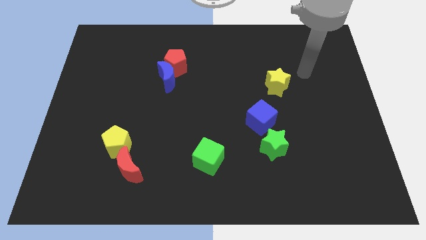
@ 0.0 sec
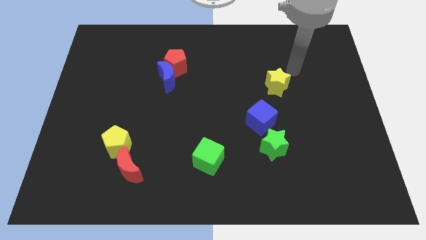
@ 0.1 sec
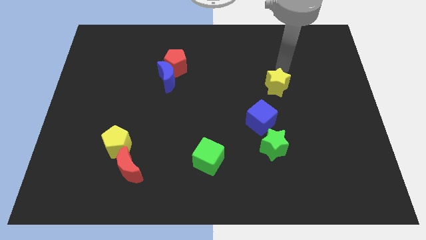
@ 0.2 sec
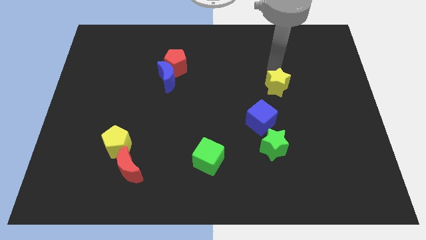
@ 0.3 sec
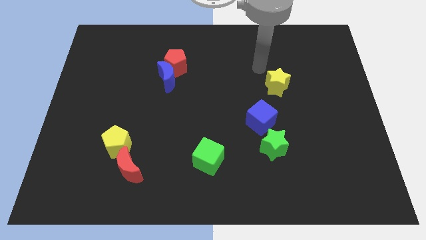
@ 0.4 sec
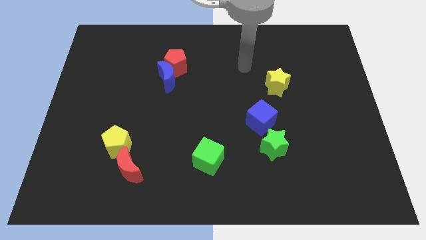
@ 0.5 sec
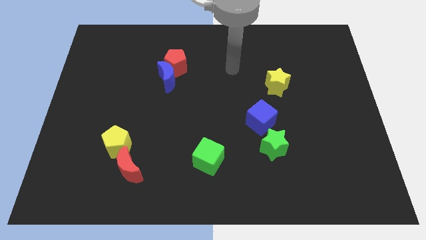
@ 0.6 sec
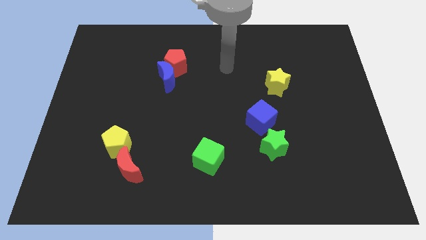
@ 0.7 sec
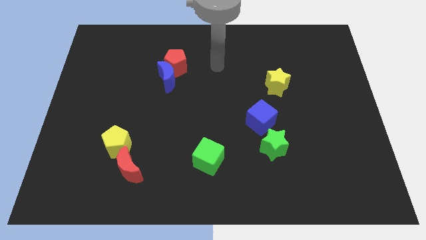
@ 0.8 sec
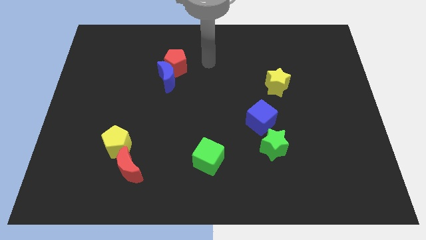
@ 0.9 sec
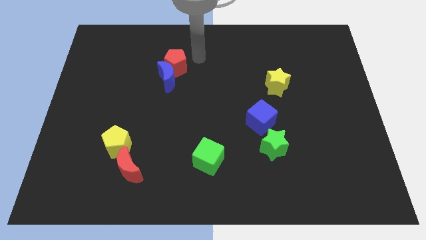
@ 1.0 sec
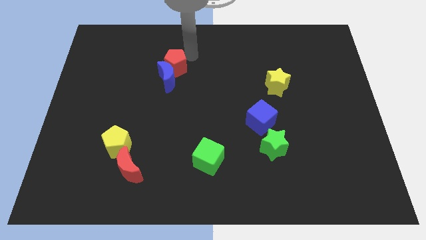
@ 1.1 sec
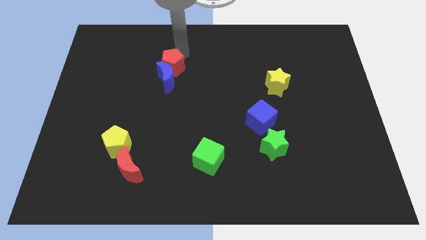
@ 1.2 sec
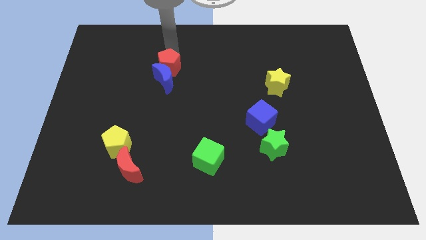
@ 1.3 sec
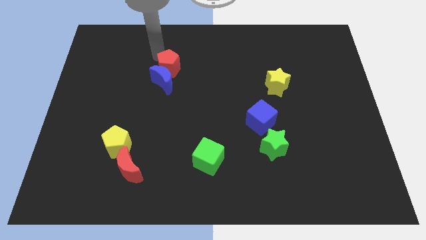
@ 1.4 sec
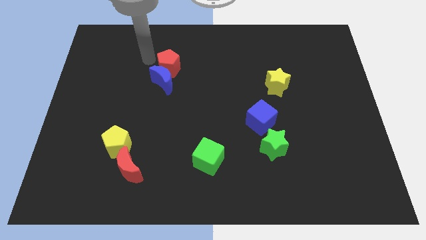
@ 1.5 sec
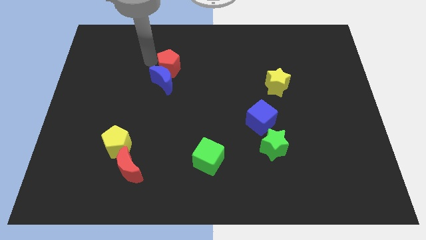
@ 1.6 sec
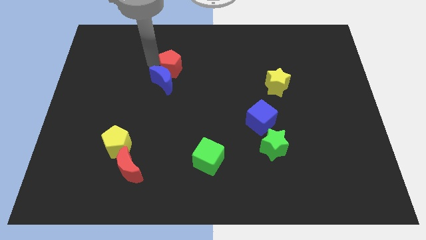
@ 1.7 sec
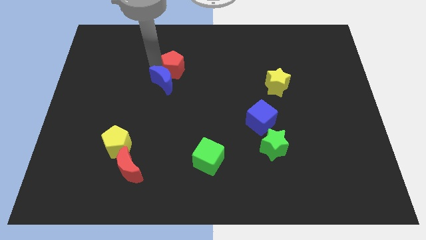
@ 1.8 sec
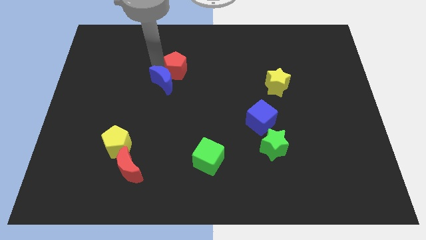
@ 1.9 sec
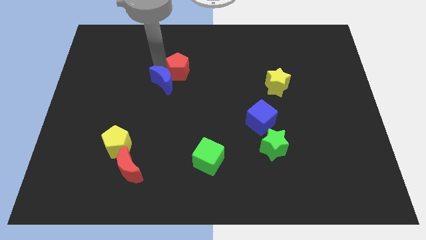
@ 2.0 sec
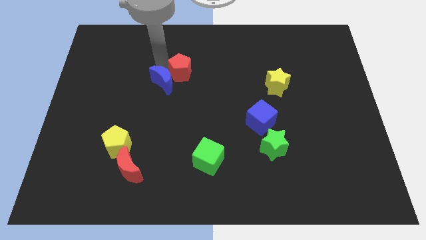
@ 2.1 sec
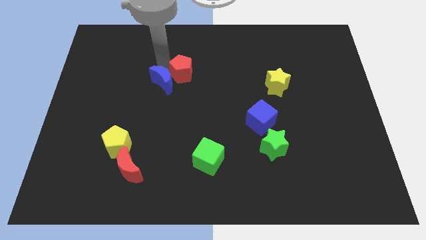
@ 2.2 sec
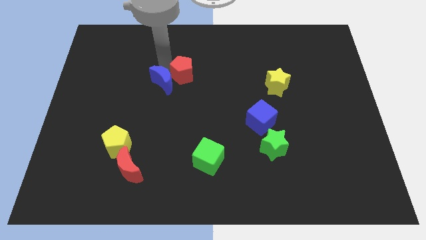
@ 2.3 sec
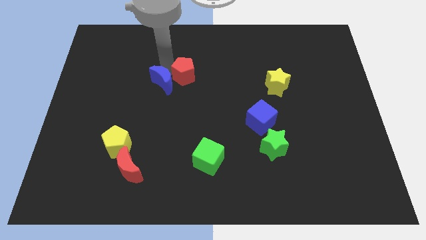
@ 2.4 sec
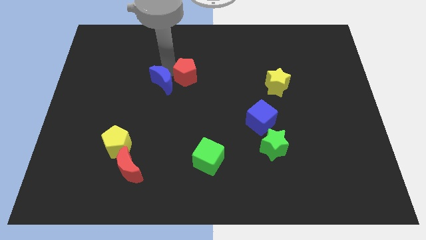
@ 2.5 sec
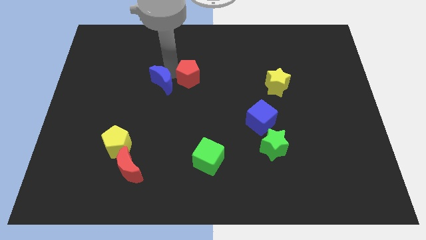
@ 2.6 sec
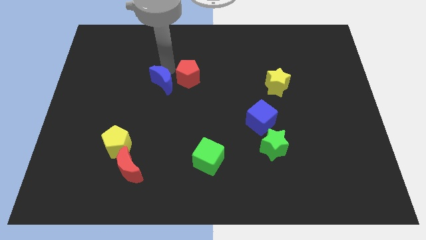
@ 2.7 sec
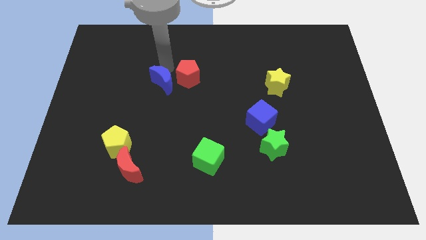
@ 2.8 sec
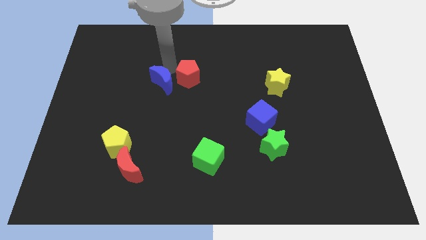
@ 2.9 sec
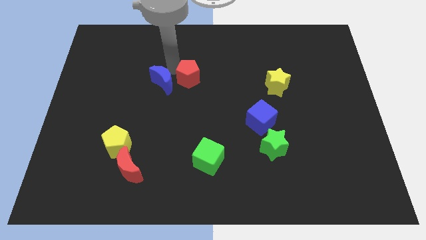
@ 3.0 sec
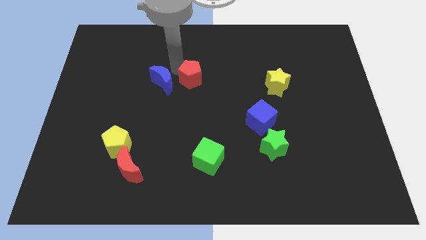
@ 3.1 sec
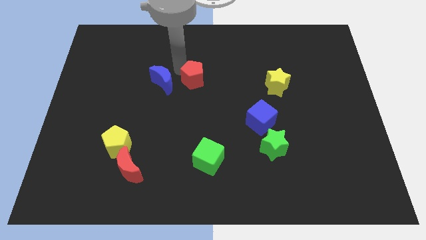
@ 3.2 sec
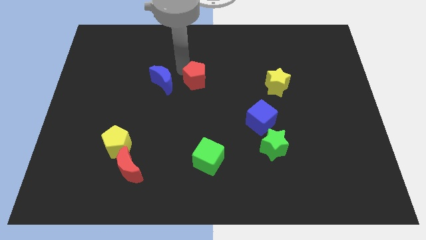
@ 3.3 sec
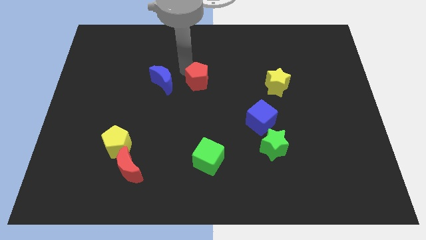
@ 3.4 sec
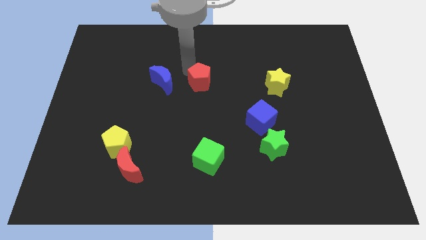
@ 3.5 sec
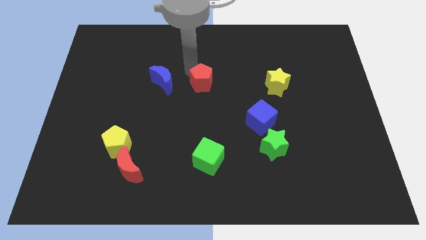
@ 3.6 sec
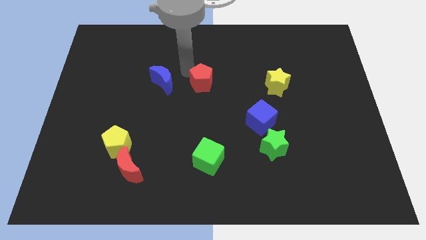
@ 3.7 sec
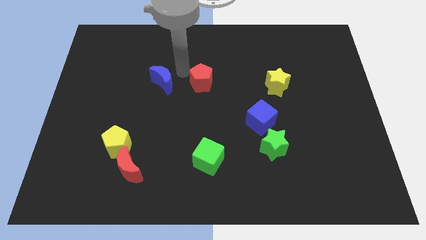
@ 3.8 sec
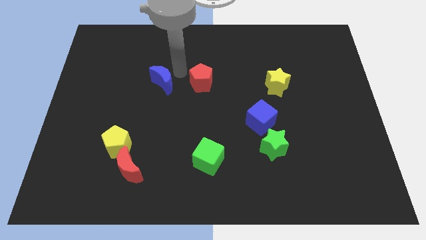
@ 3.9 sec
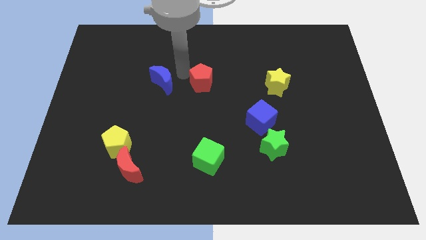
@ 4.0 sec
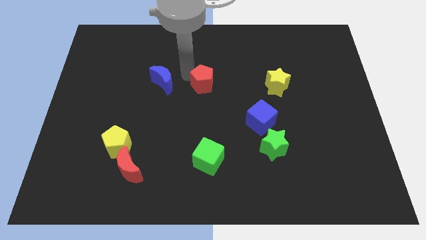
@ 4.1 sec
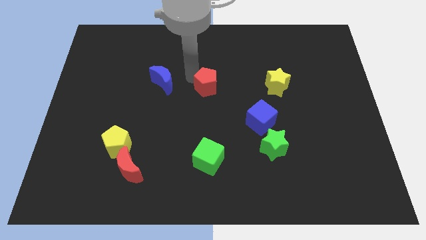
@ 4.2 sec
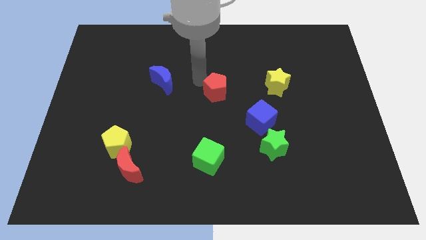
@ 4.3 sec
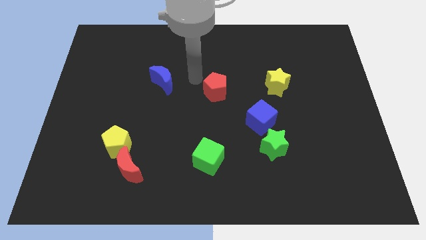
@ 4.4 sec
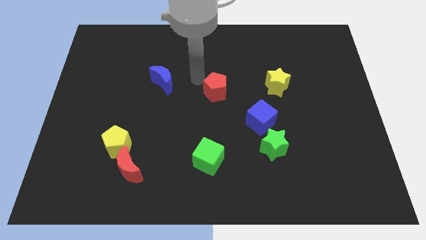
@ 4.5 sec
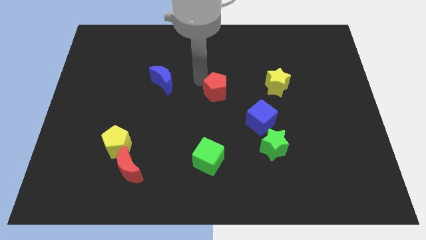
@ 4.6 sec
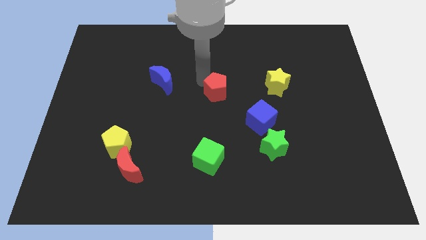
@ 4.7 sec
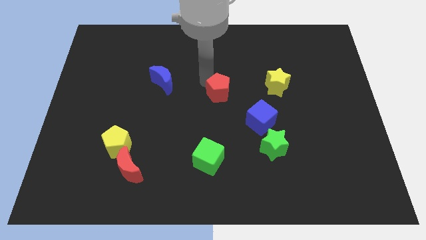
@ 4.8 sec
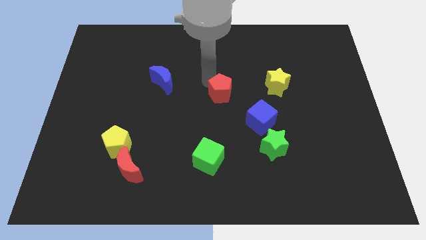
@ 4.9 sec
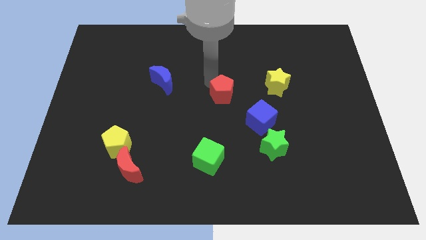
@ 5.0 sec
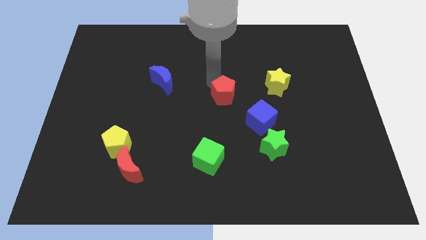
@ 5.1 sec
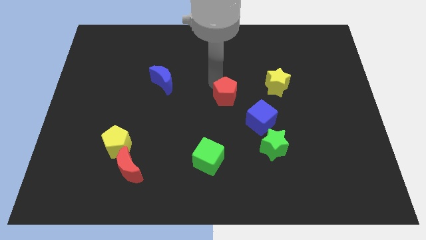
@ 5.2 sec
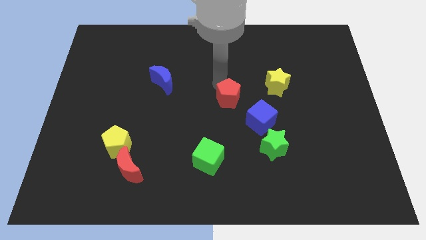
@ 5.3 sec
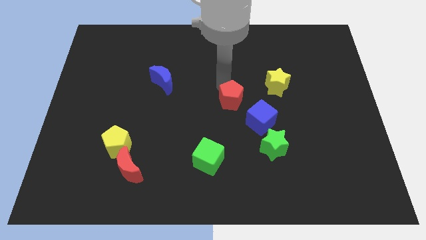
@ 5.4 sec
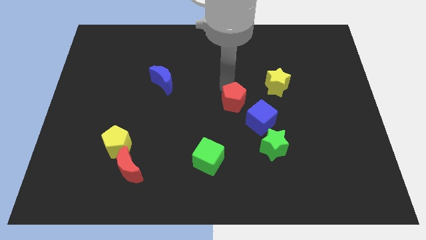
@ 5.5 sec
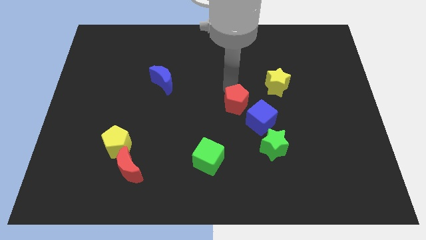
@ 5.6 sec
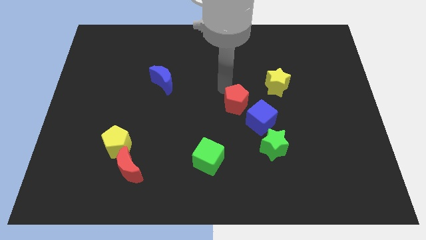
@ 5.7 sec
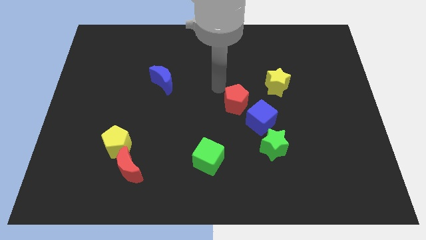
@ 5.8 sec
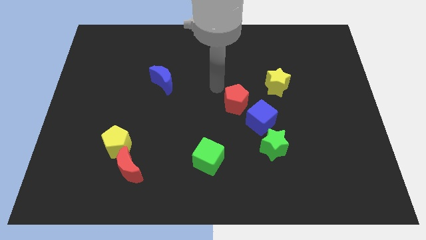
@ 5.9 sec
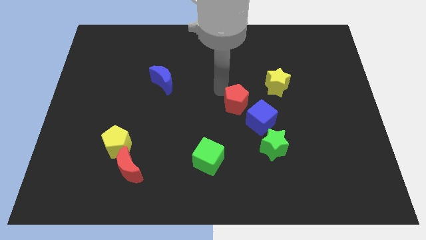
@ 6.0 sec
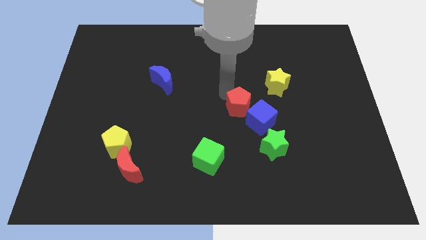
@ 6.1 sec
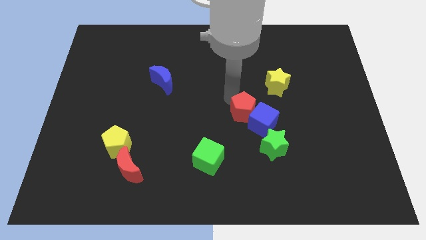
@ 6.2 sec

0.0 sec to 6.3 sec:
put the red pentagon next to the blue cube

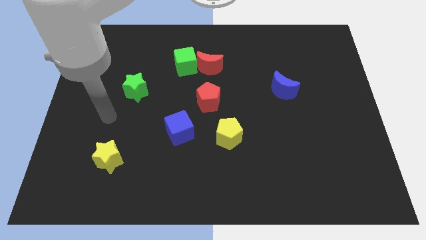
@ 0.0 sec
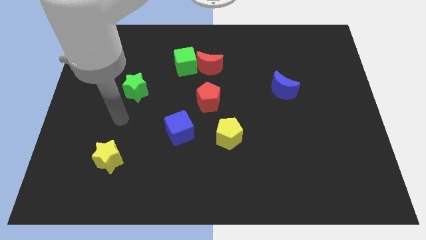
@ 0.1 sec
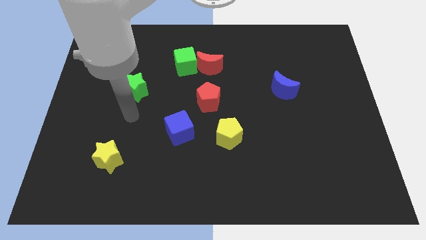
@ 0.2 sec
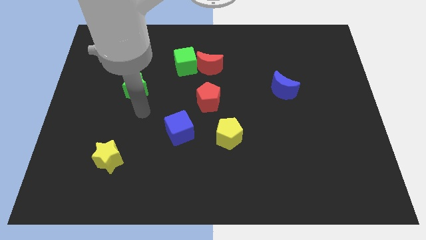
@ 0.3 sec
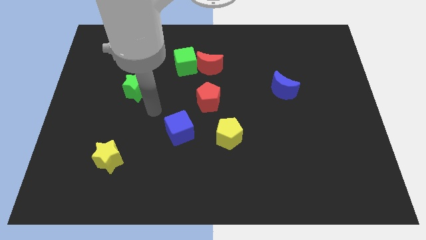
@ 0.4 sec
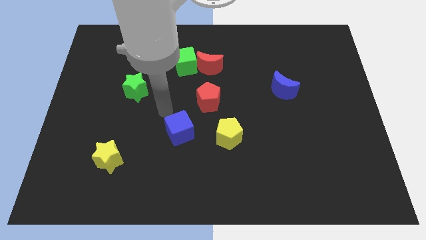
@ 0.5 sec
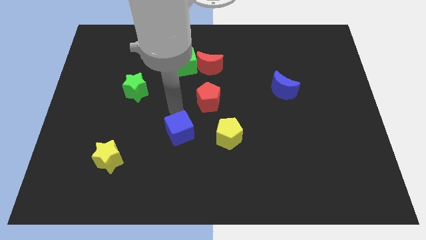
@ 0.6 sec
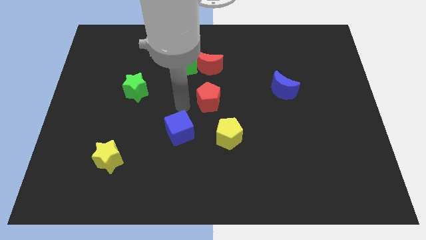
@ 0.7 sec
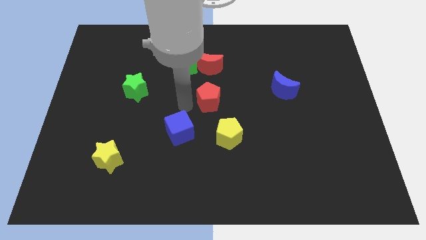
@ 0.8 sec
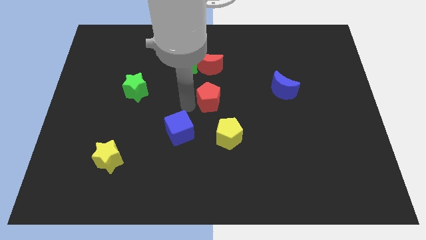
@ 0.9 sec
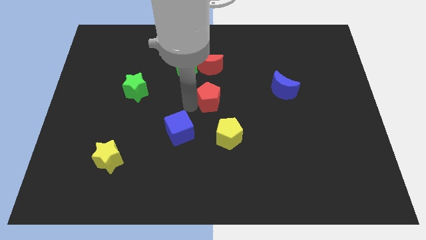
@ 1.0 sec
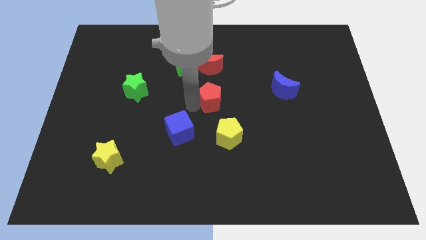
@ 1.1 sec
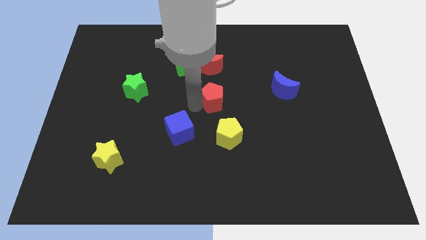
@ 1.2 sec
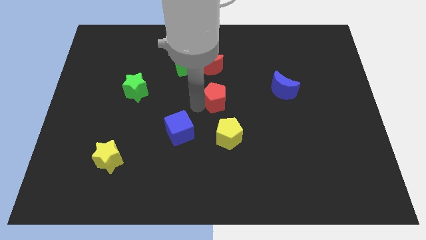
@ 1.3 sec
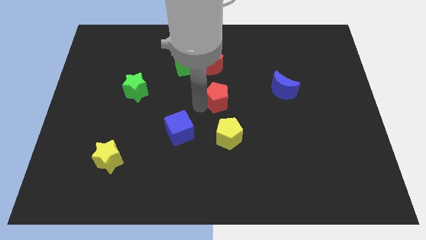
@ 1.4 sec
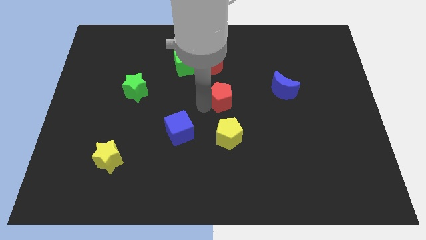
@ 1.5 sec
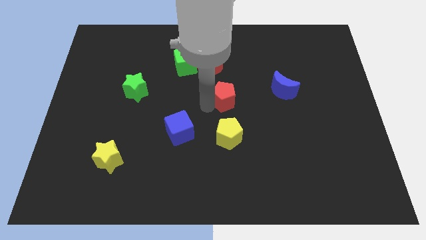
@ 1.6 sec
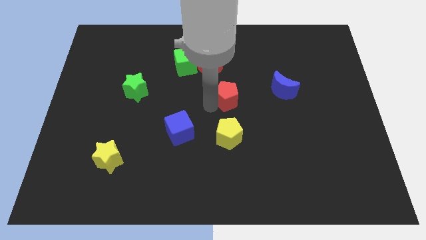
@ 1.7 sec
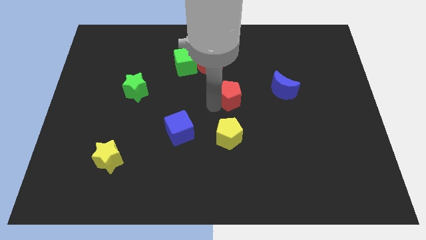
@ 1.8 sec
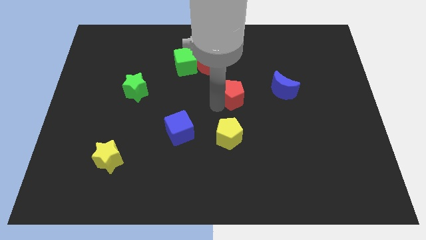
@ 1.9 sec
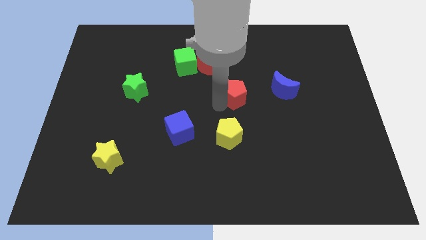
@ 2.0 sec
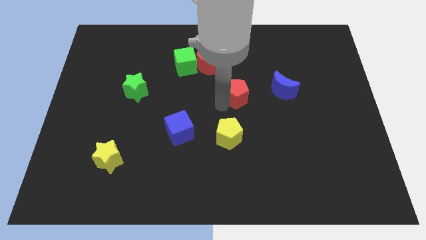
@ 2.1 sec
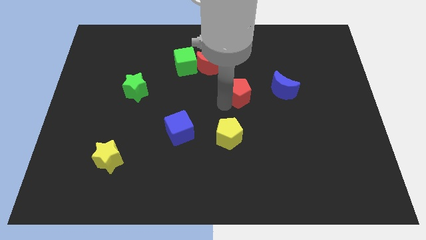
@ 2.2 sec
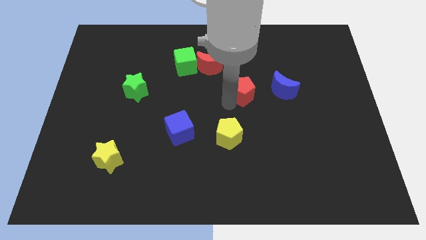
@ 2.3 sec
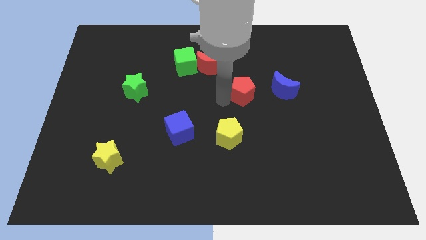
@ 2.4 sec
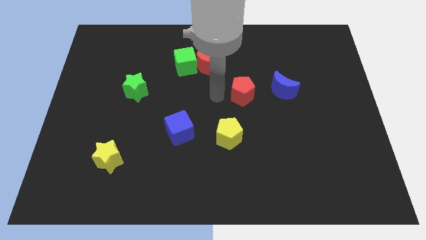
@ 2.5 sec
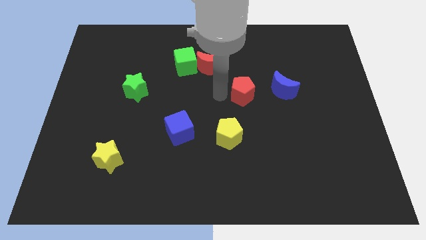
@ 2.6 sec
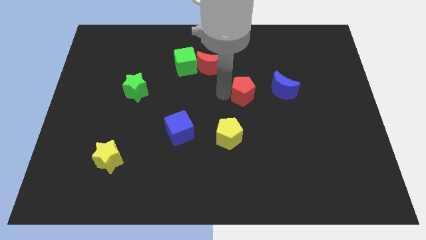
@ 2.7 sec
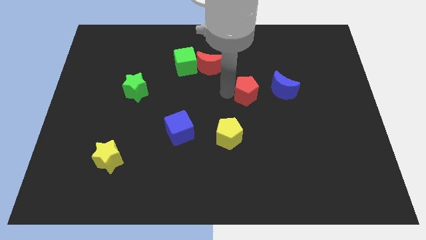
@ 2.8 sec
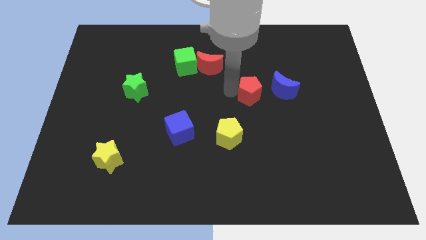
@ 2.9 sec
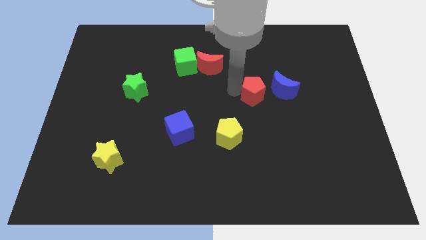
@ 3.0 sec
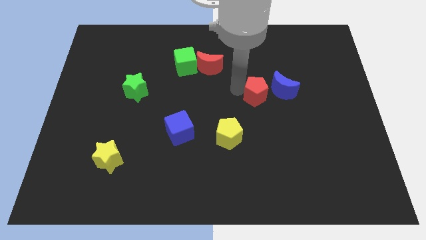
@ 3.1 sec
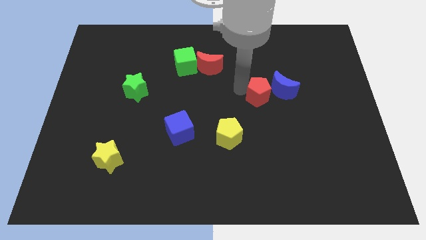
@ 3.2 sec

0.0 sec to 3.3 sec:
put the red pentagon next to the blue moon
